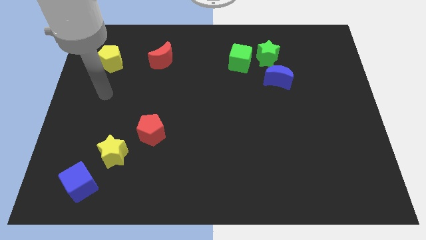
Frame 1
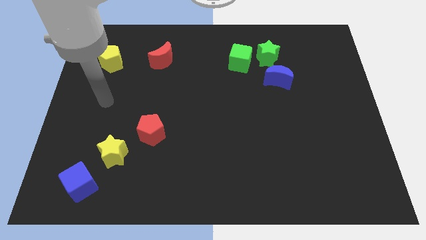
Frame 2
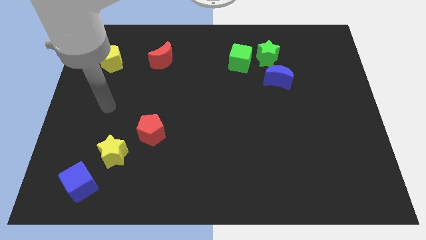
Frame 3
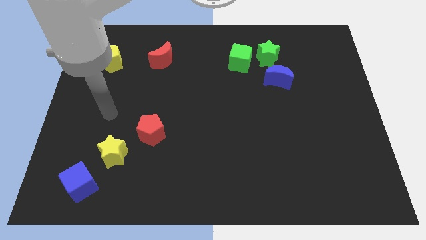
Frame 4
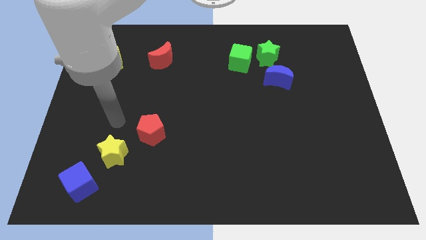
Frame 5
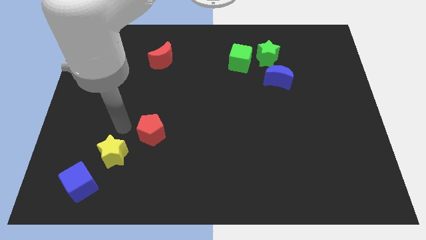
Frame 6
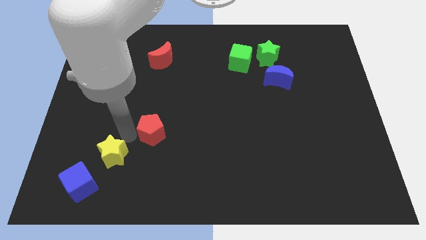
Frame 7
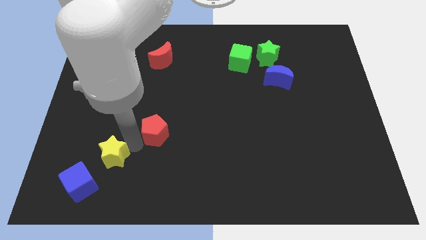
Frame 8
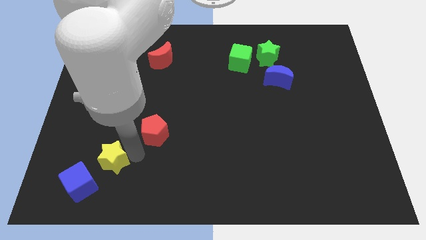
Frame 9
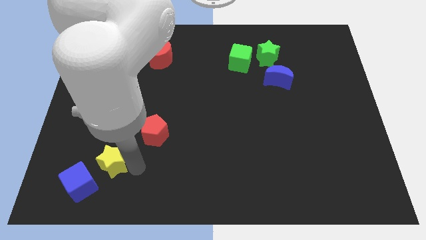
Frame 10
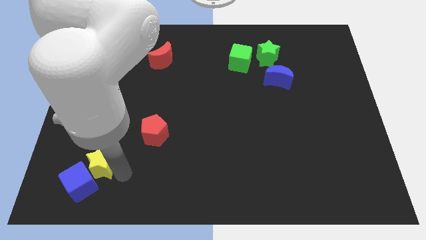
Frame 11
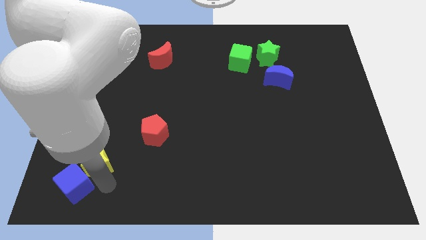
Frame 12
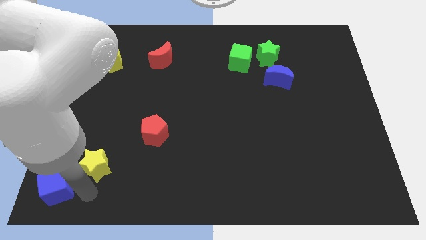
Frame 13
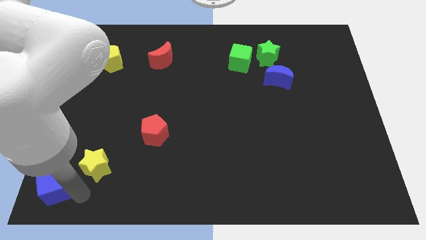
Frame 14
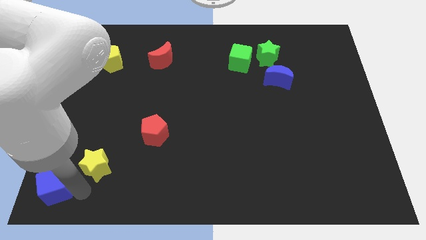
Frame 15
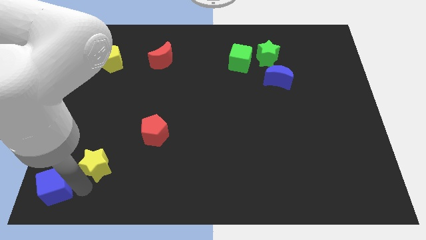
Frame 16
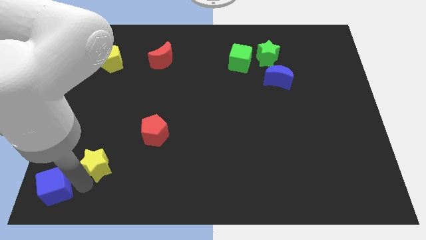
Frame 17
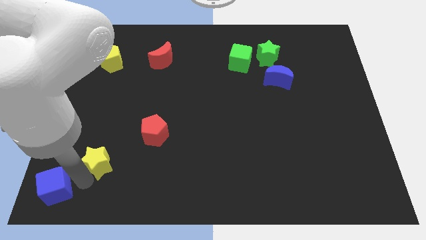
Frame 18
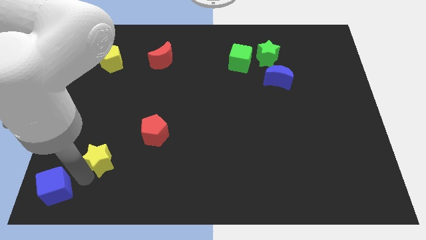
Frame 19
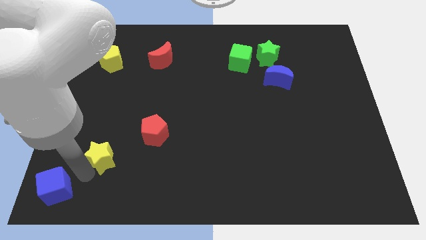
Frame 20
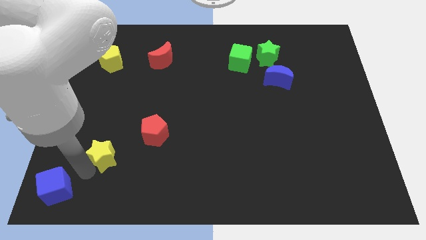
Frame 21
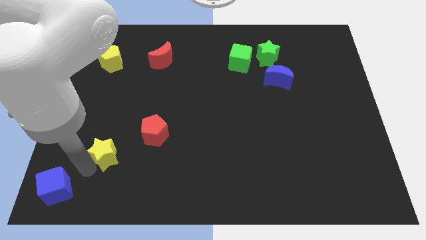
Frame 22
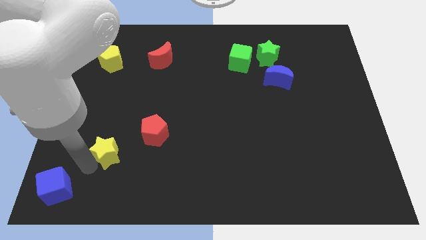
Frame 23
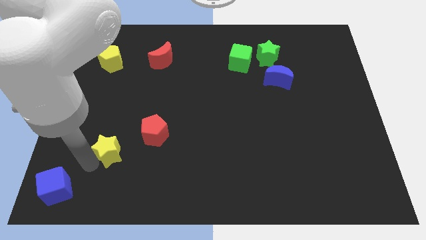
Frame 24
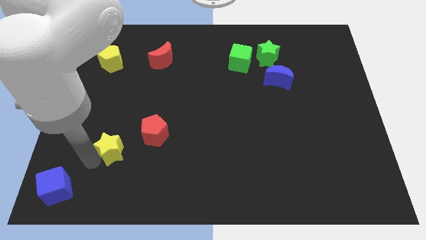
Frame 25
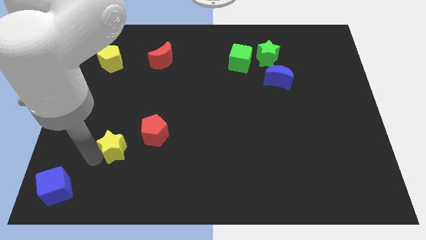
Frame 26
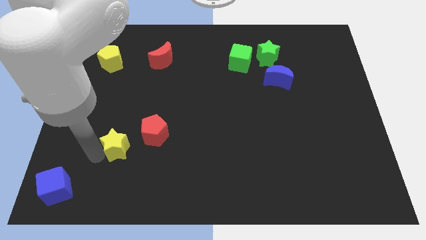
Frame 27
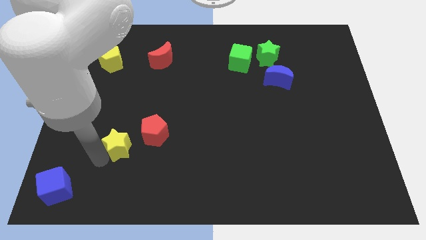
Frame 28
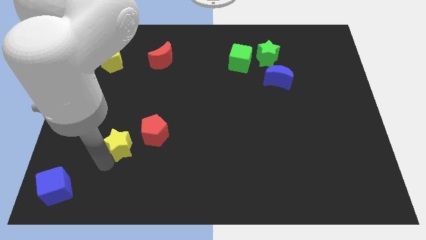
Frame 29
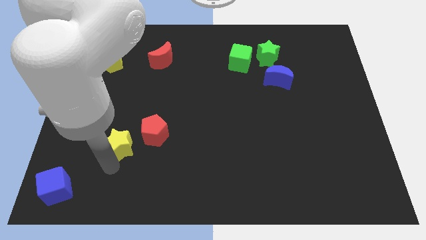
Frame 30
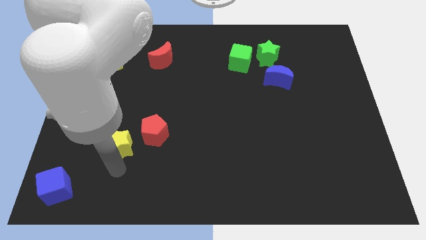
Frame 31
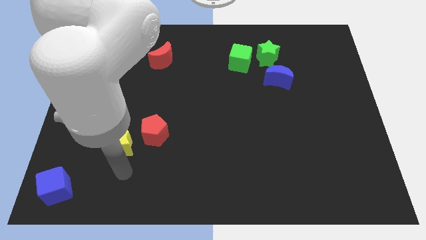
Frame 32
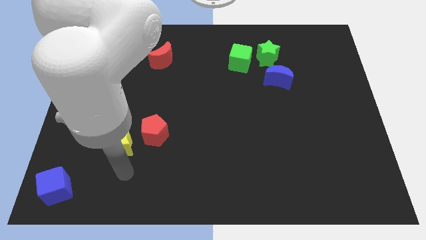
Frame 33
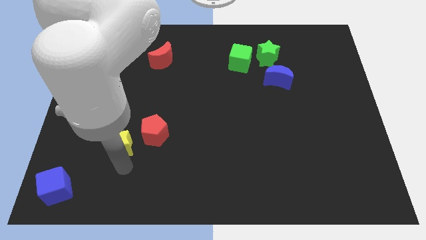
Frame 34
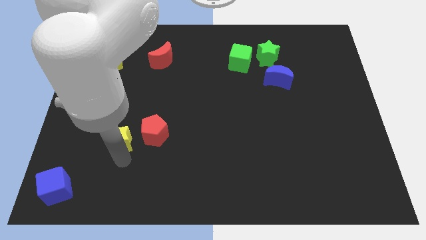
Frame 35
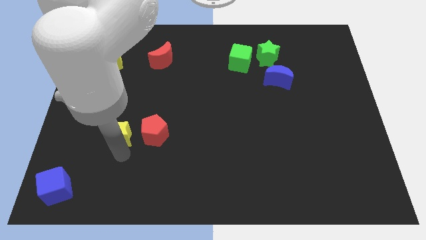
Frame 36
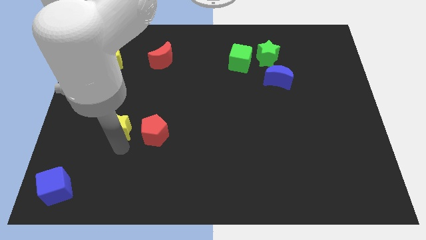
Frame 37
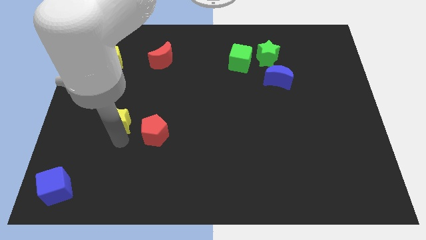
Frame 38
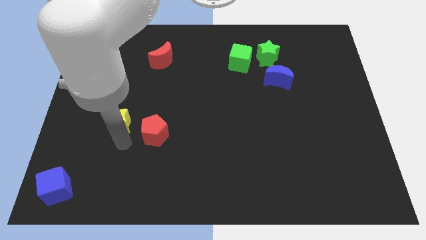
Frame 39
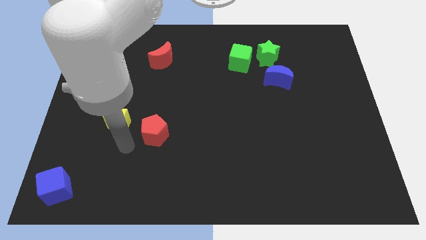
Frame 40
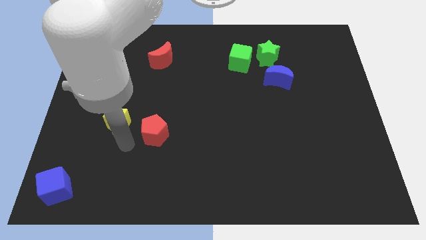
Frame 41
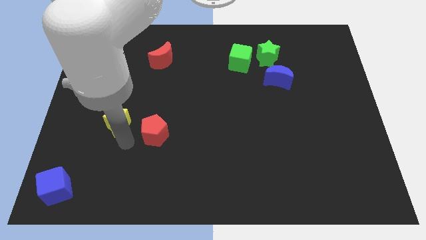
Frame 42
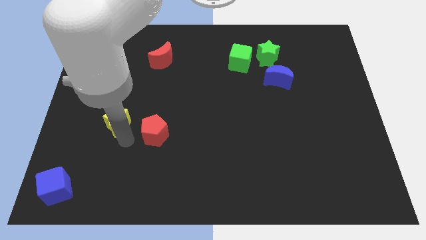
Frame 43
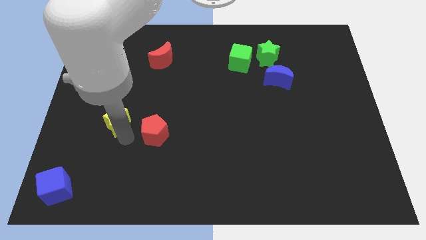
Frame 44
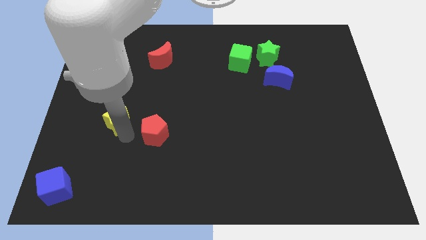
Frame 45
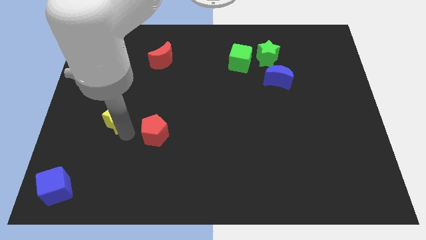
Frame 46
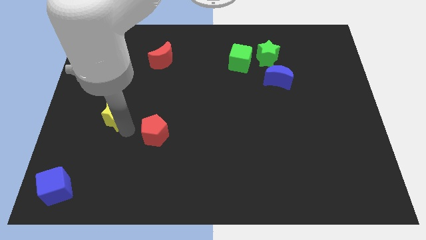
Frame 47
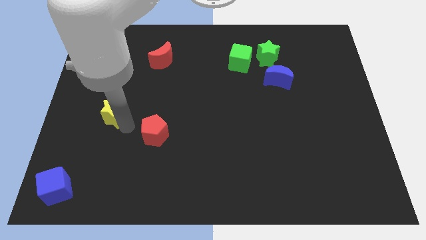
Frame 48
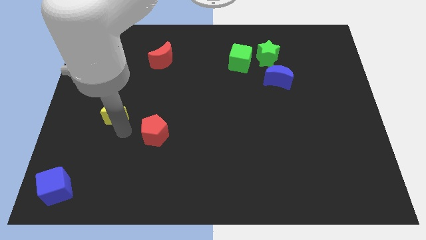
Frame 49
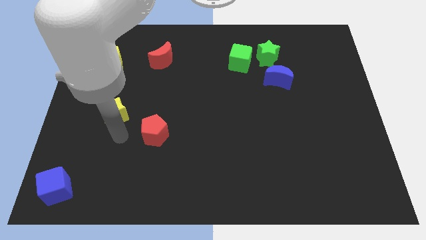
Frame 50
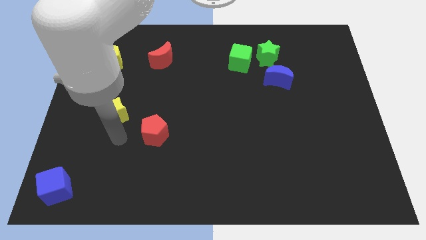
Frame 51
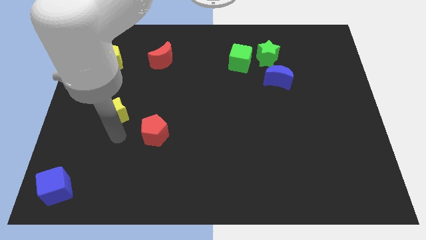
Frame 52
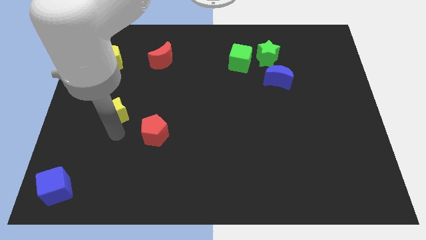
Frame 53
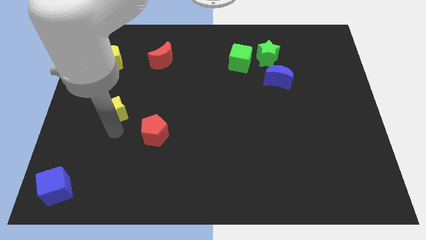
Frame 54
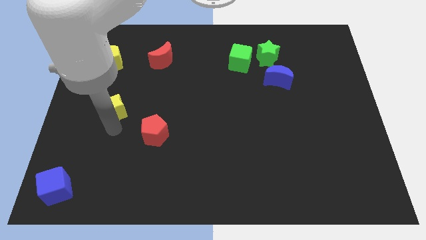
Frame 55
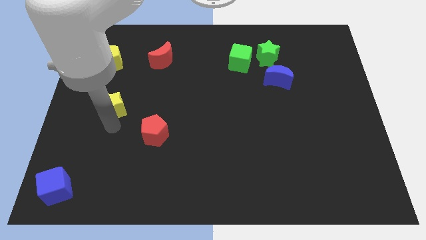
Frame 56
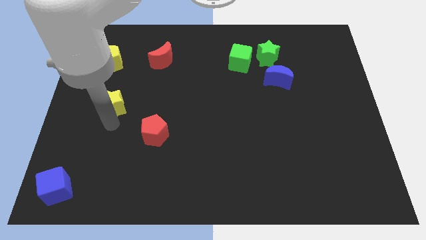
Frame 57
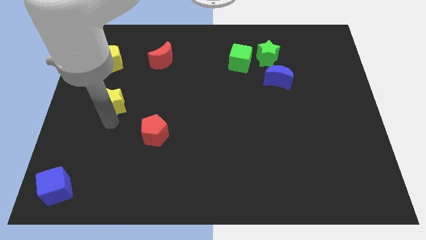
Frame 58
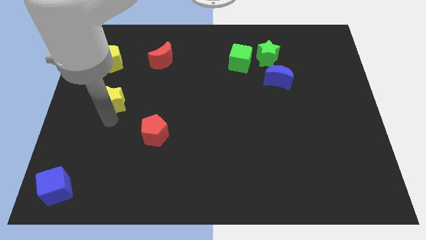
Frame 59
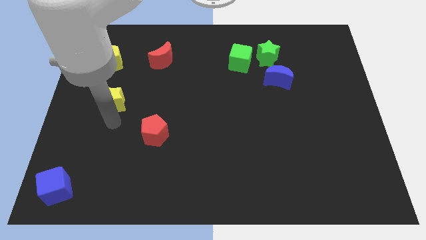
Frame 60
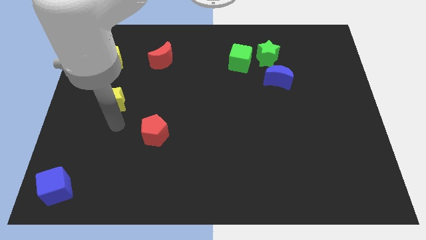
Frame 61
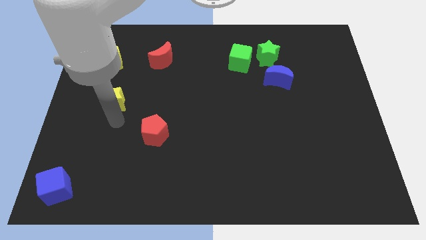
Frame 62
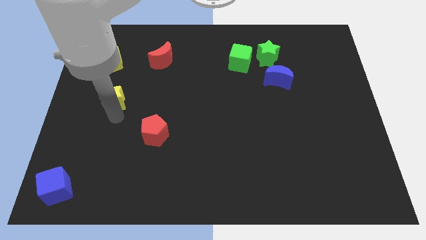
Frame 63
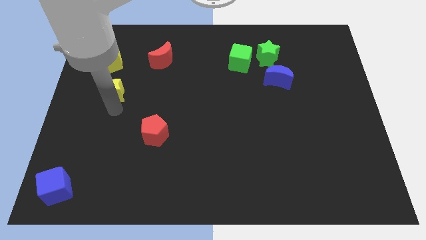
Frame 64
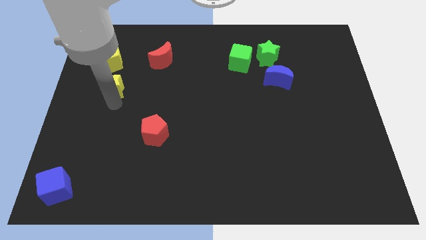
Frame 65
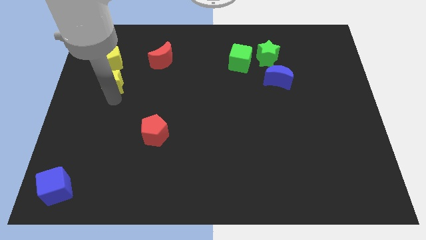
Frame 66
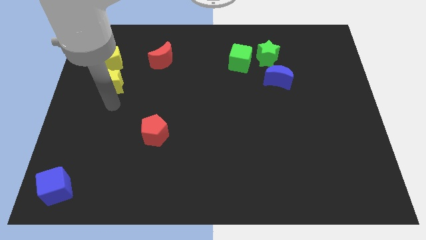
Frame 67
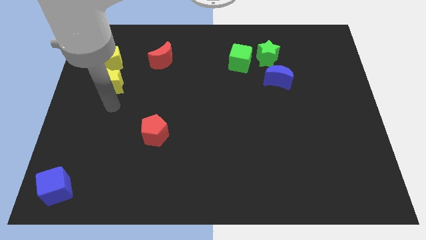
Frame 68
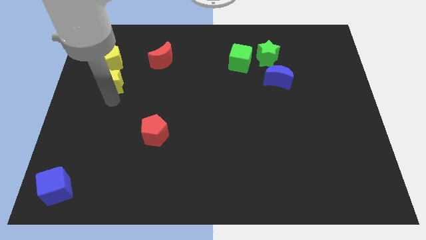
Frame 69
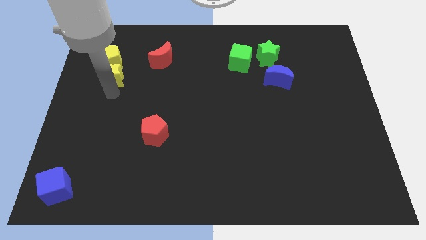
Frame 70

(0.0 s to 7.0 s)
put the yellow star towards the yellow pentagon
